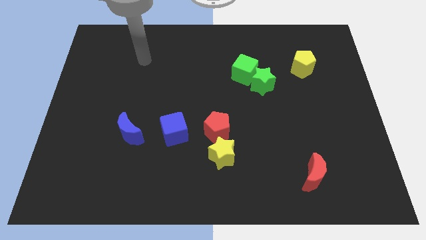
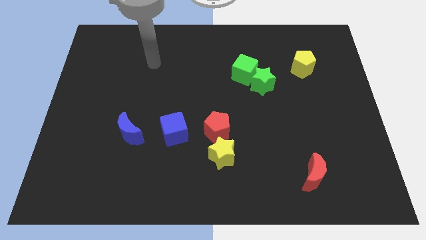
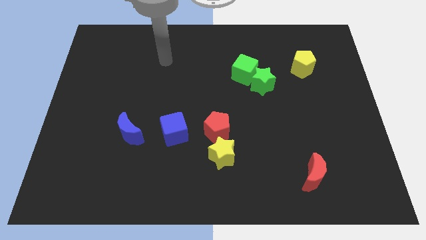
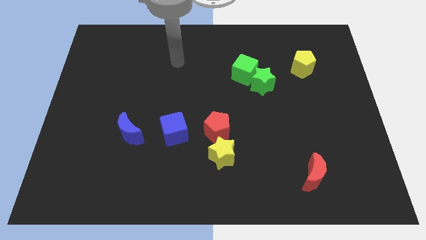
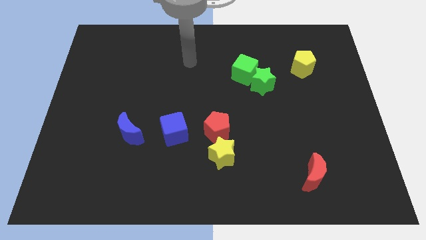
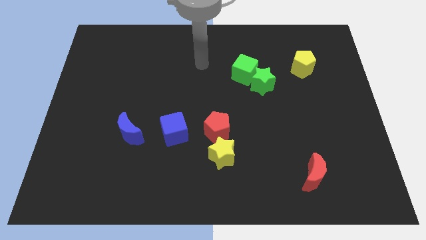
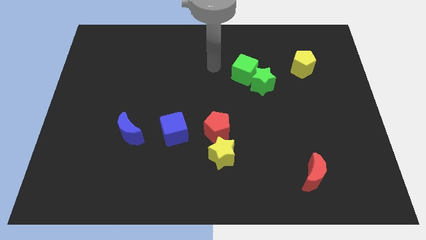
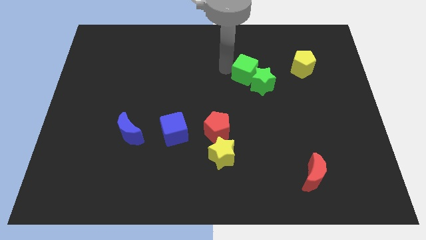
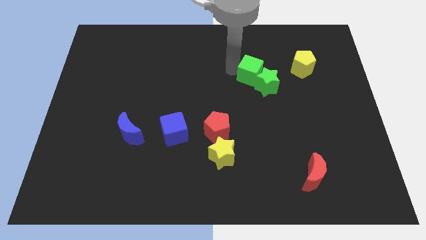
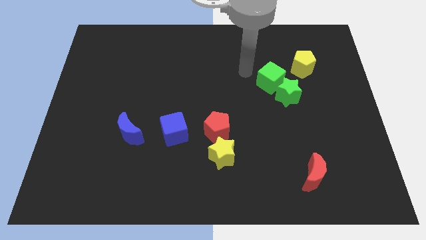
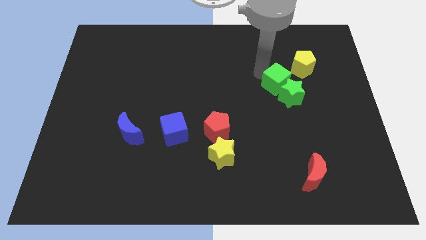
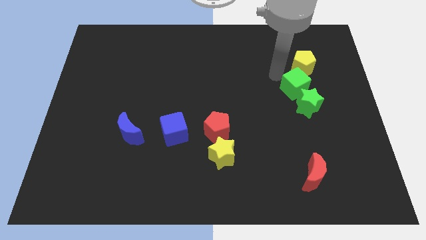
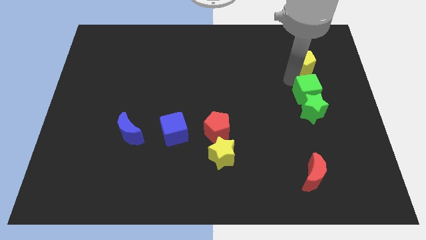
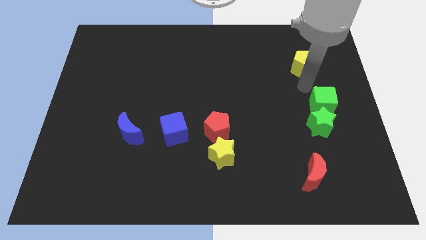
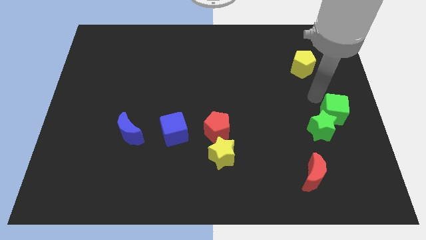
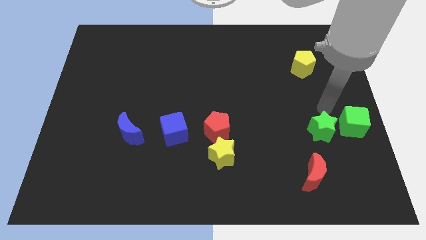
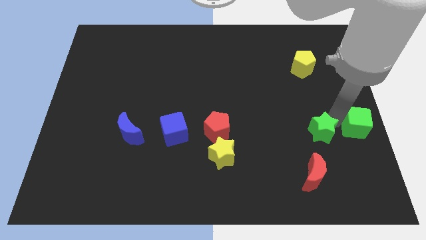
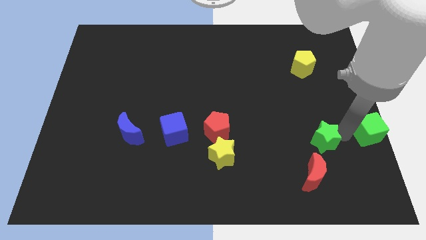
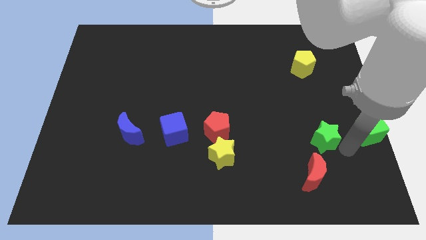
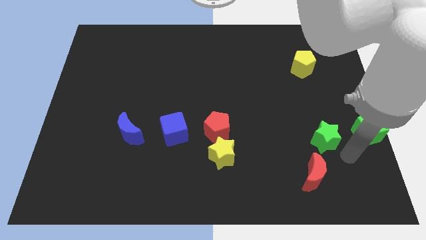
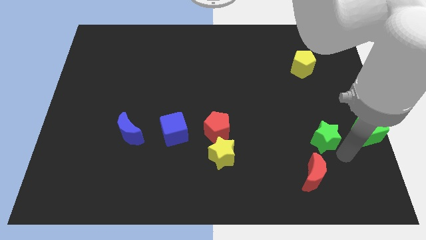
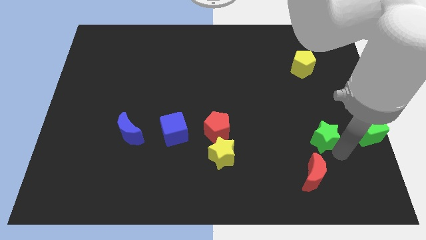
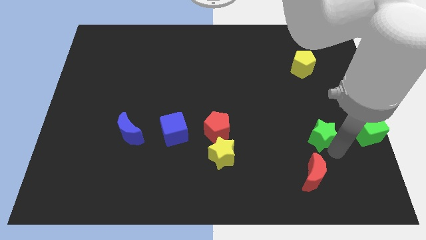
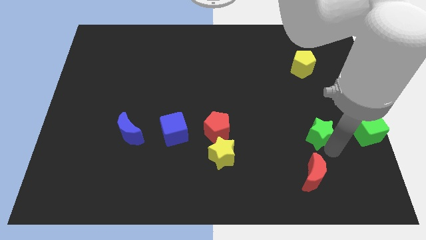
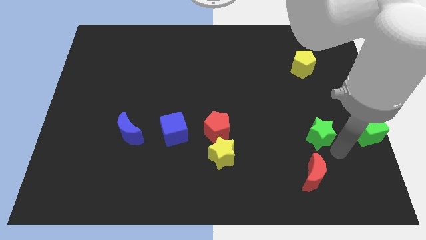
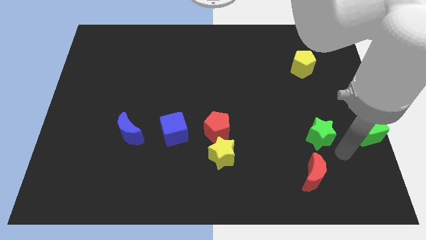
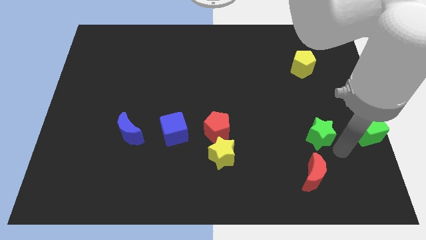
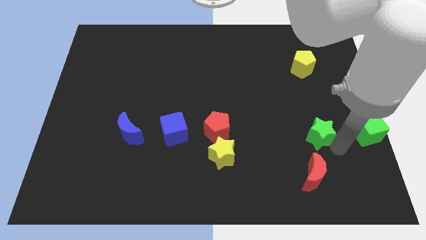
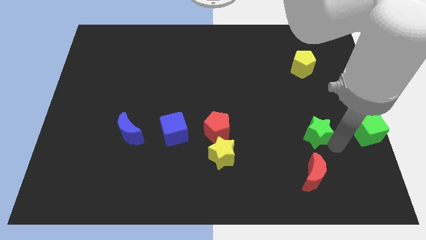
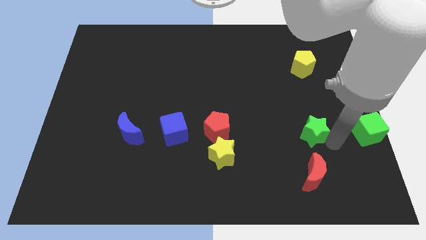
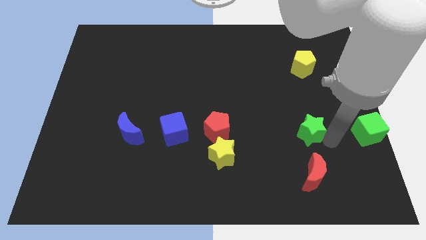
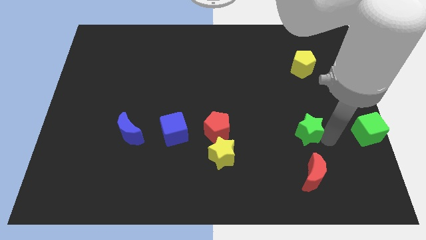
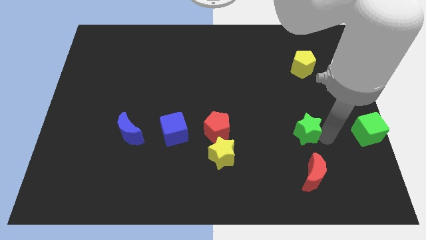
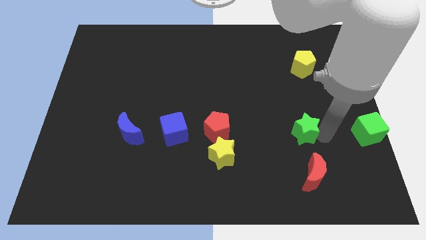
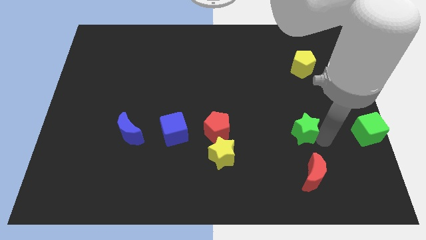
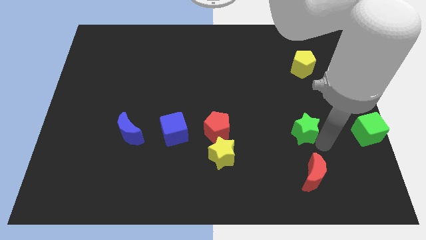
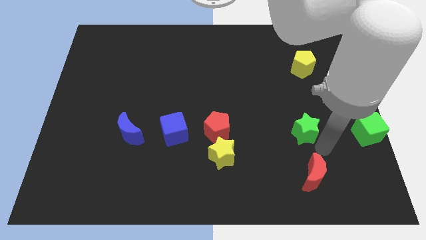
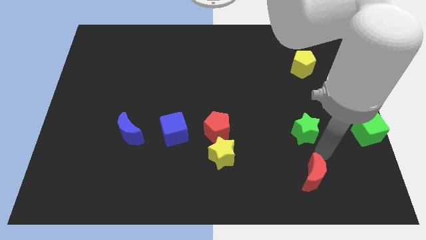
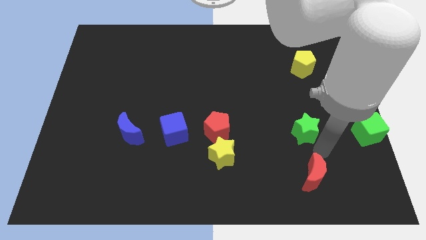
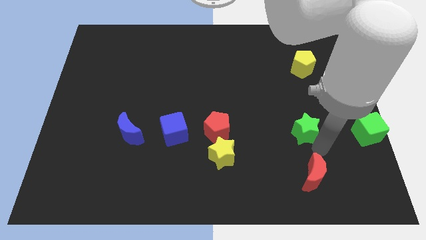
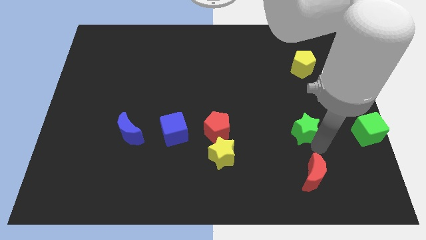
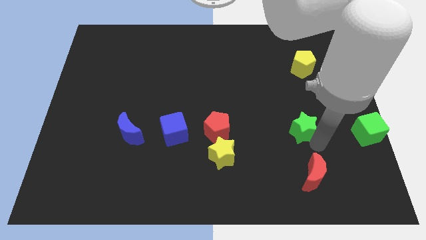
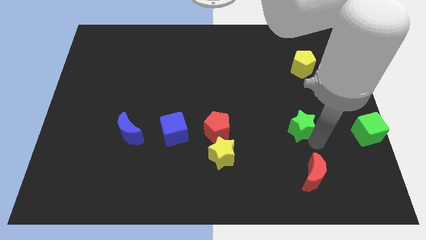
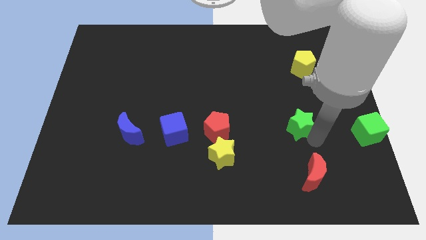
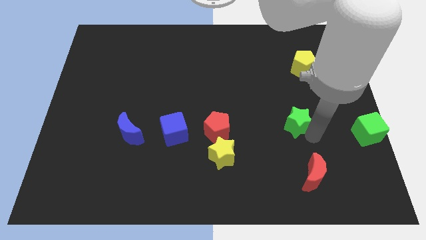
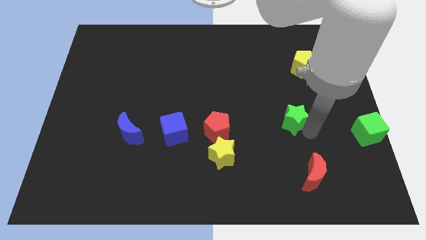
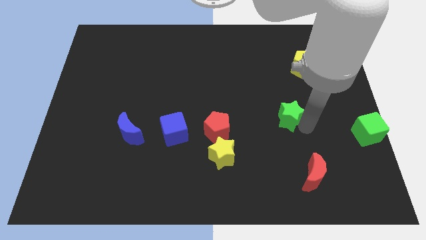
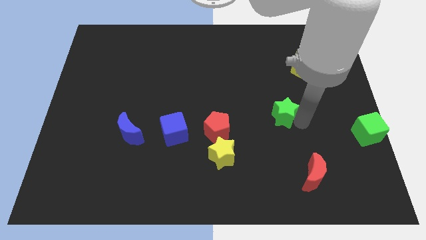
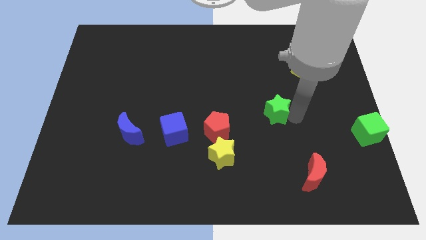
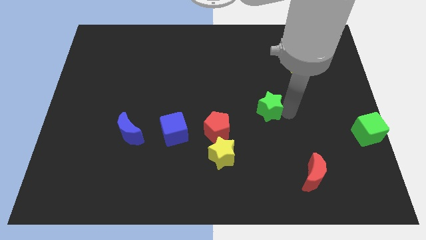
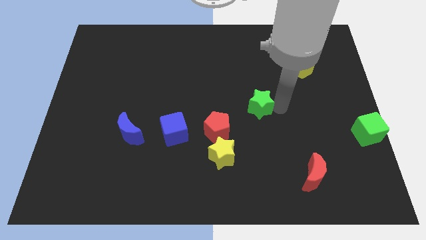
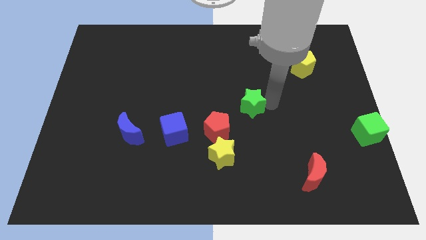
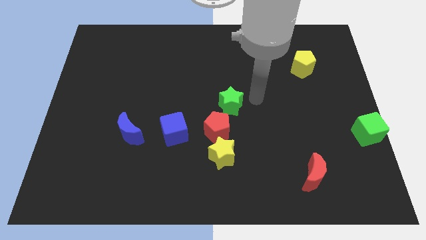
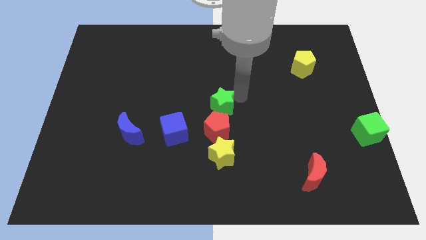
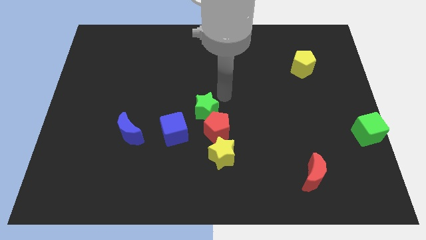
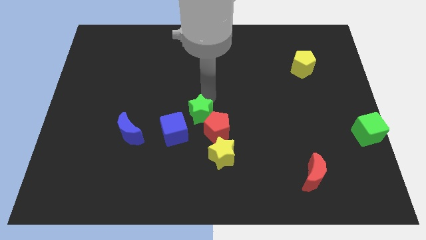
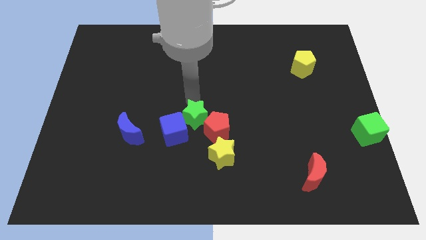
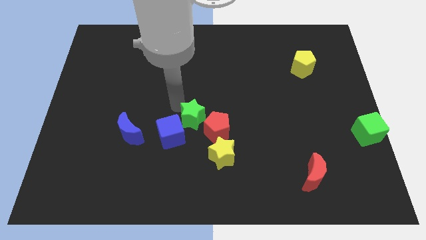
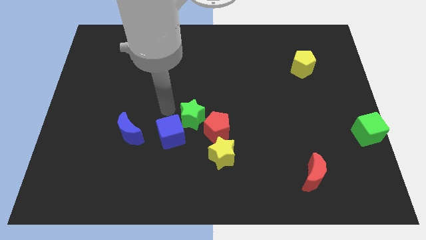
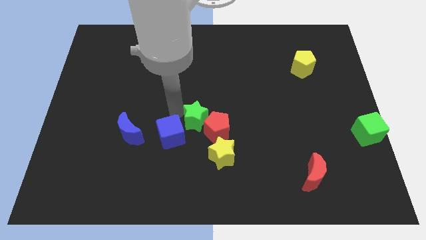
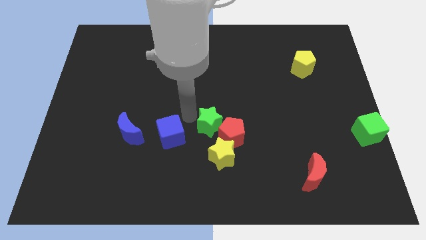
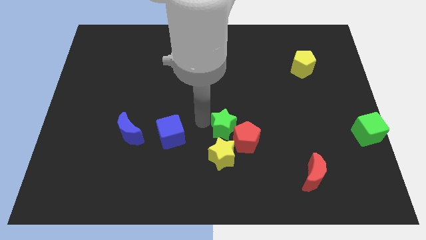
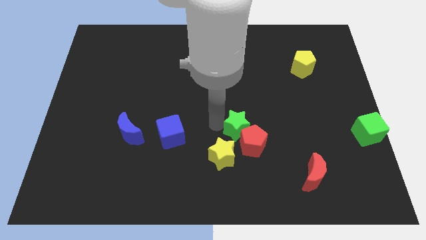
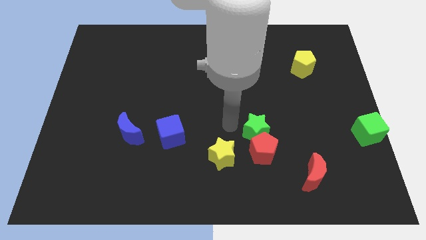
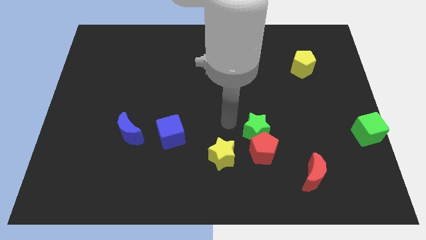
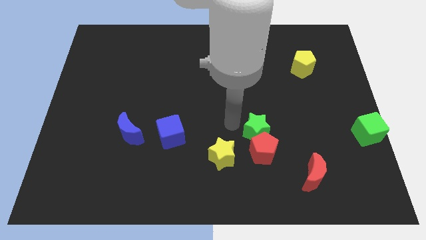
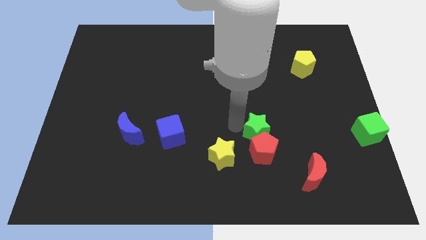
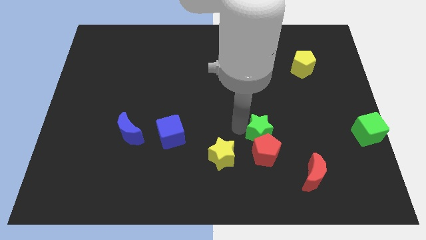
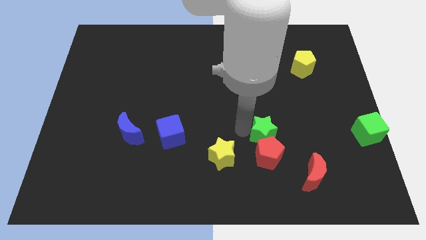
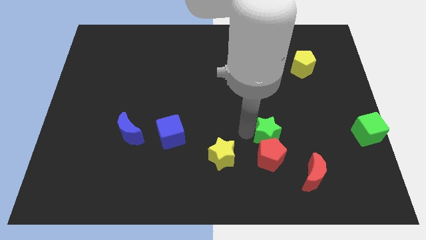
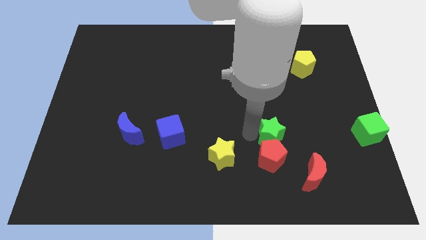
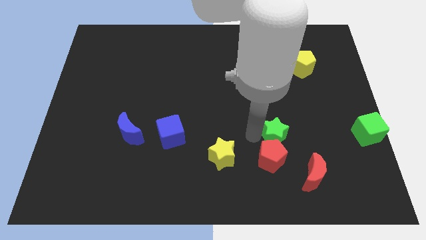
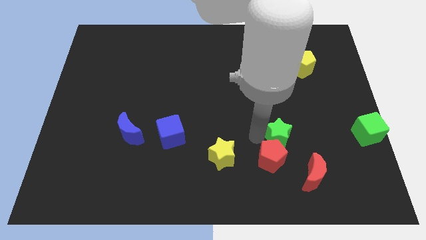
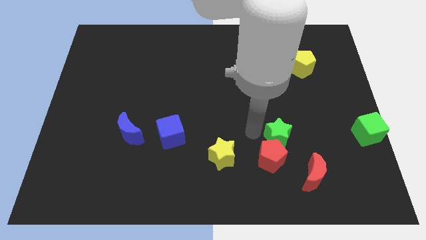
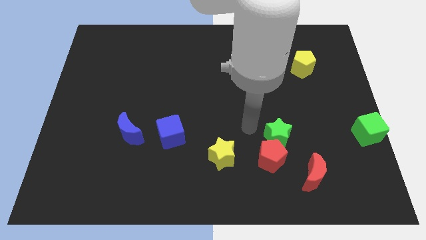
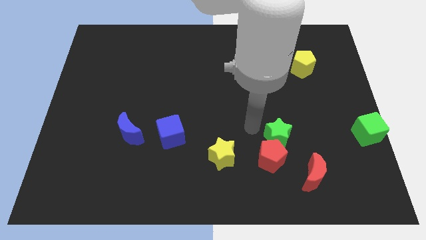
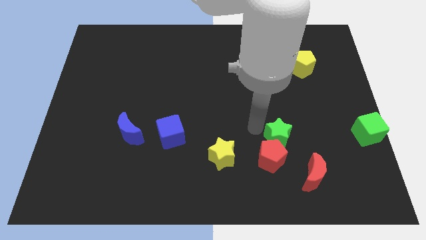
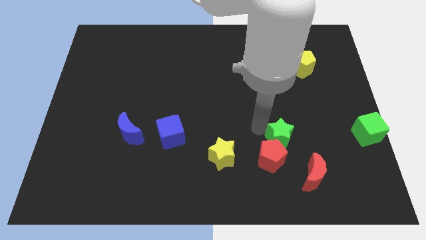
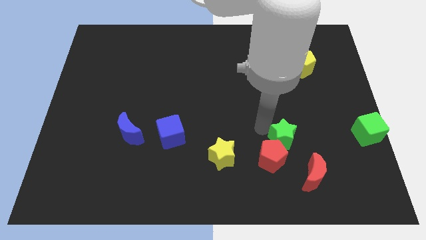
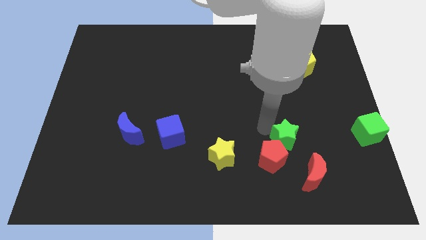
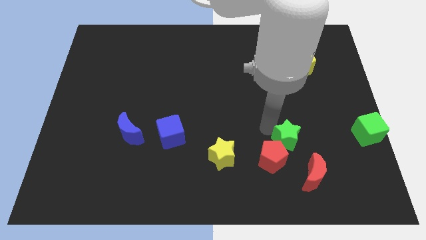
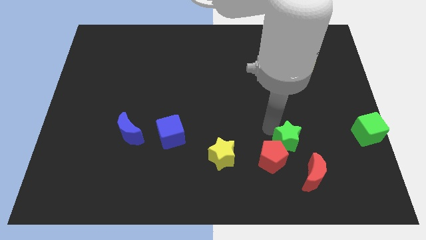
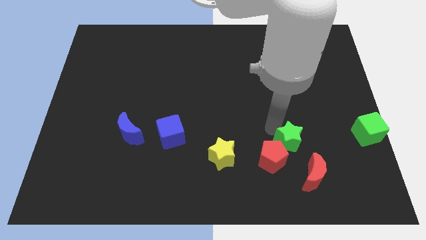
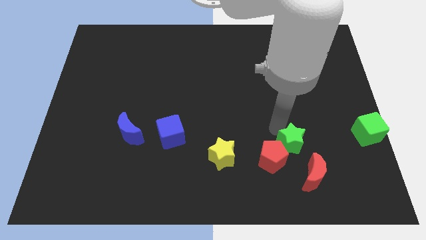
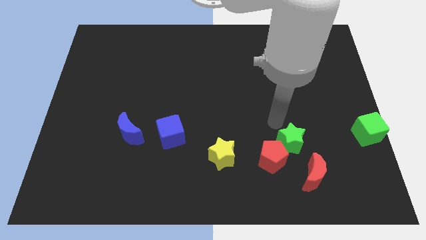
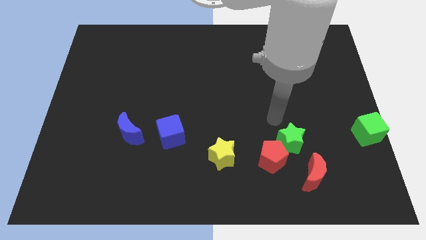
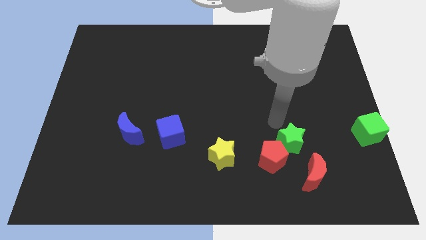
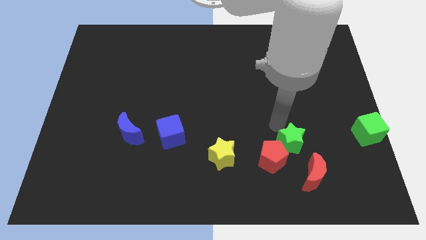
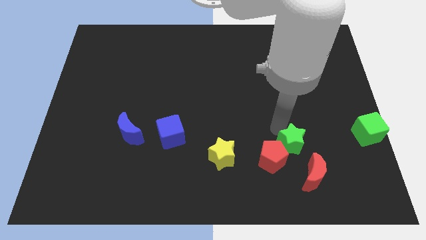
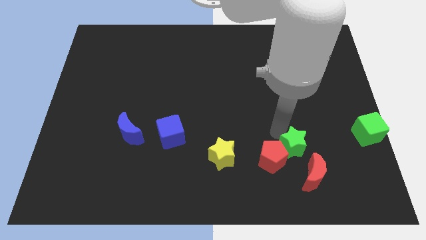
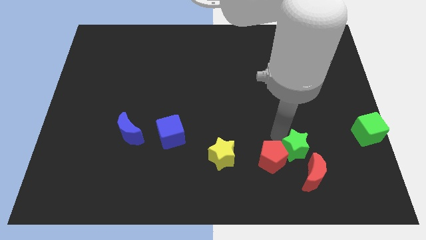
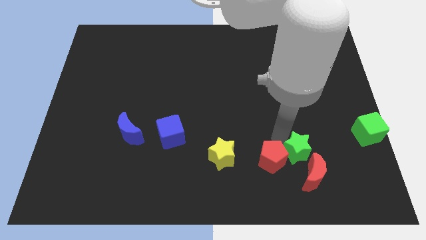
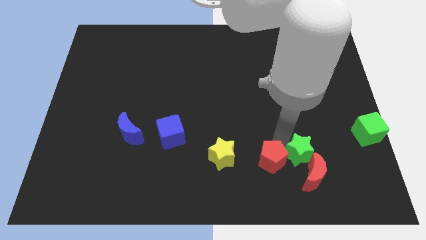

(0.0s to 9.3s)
put the green star towards the red moon
